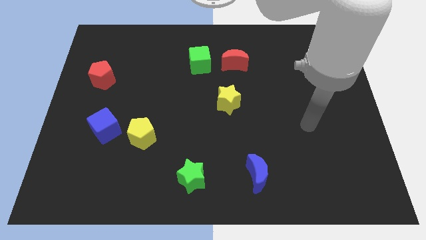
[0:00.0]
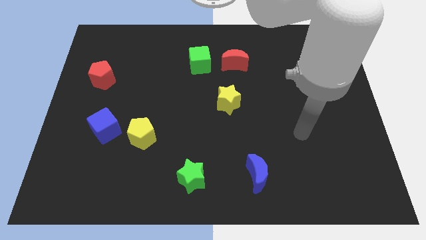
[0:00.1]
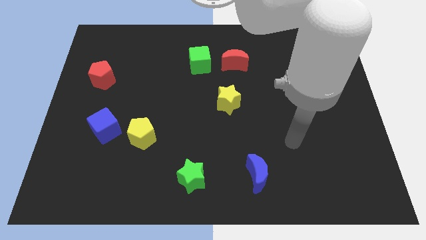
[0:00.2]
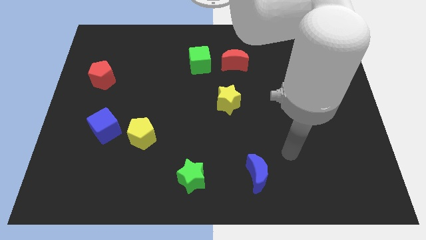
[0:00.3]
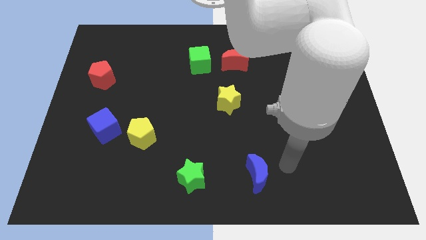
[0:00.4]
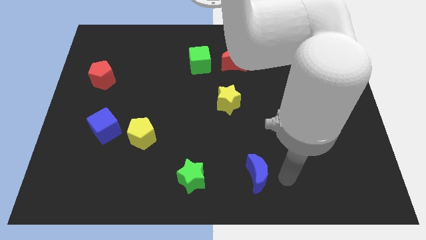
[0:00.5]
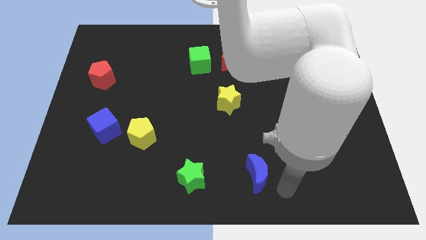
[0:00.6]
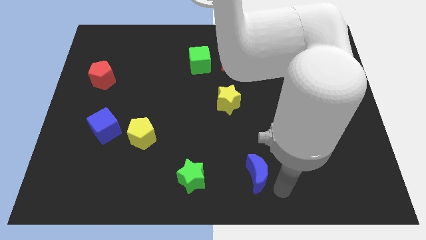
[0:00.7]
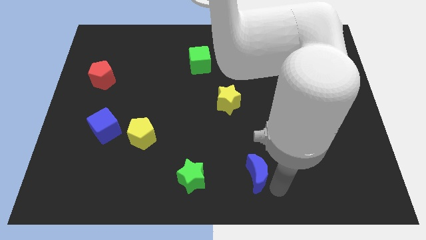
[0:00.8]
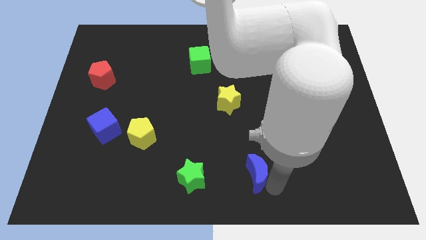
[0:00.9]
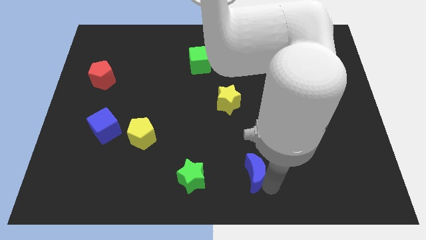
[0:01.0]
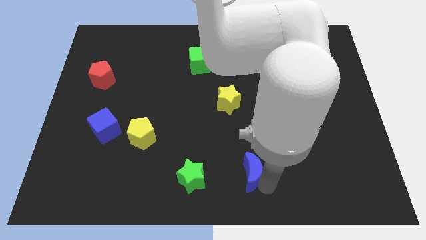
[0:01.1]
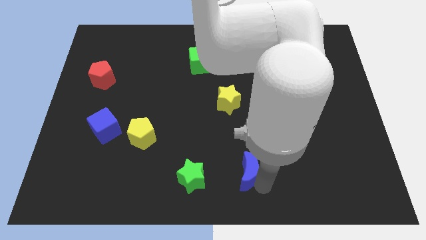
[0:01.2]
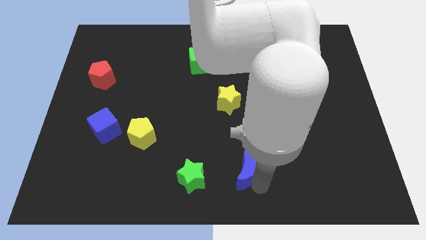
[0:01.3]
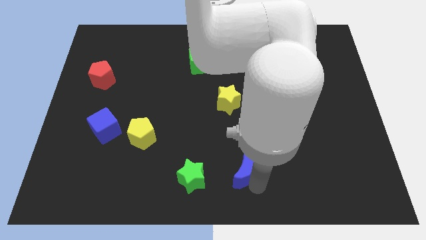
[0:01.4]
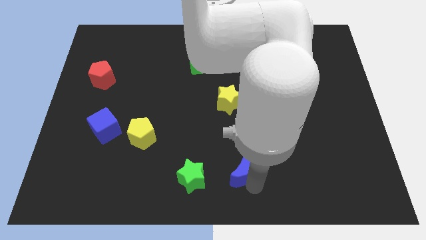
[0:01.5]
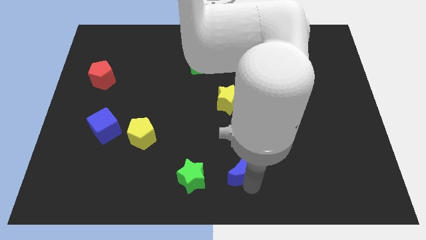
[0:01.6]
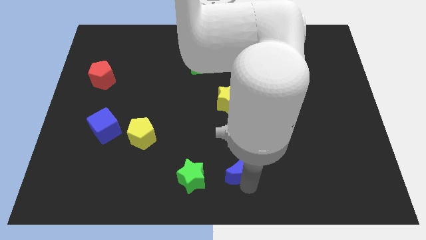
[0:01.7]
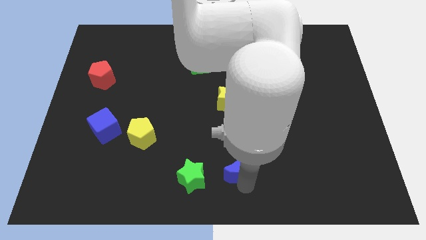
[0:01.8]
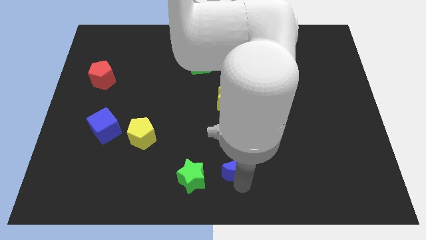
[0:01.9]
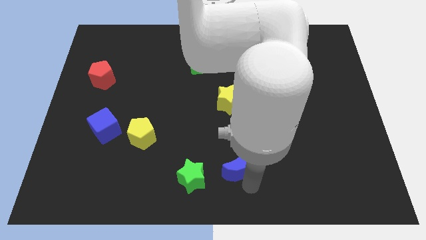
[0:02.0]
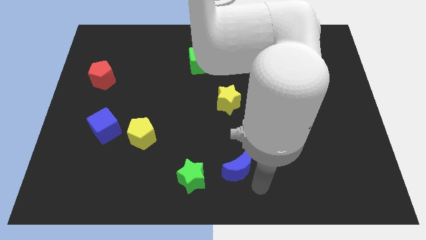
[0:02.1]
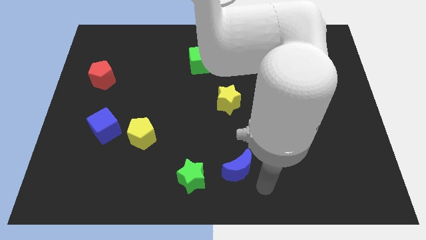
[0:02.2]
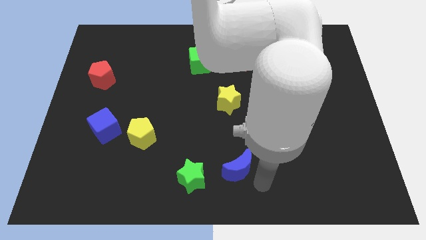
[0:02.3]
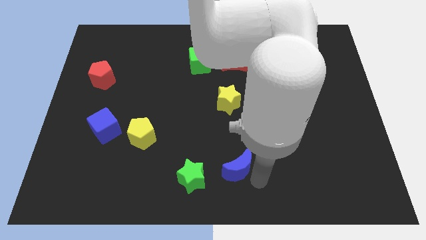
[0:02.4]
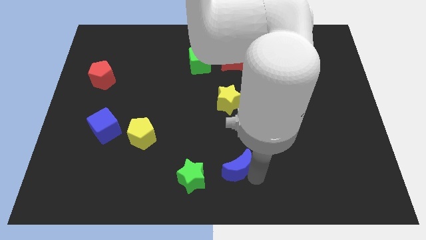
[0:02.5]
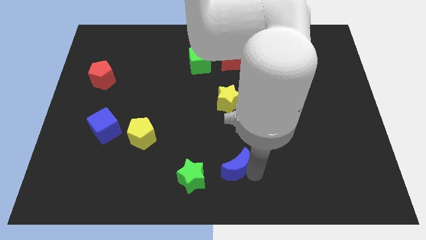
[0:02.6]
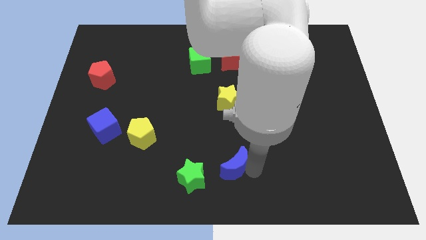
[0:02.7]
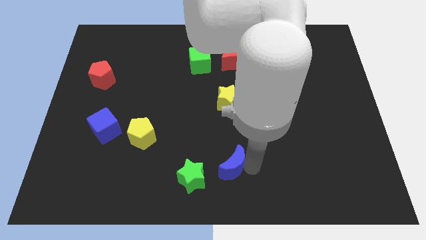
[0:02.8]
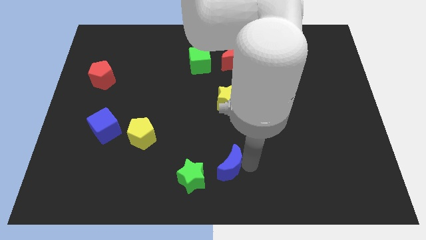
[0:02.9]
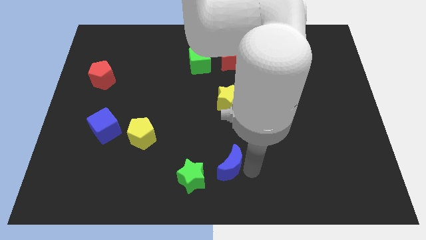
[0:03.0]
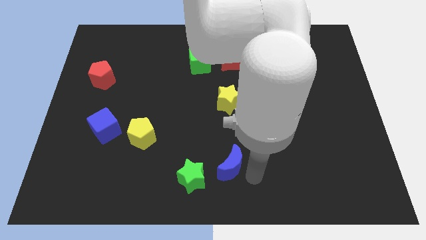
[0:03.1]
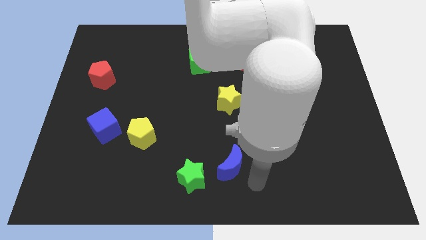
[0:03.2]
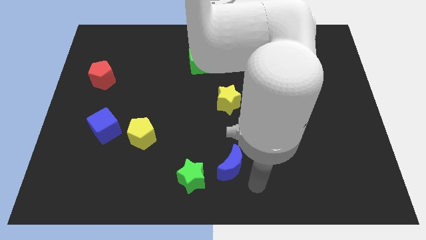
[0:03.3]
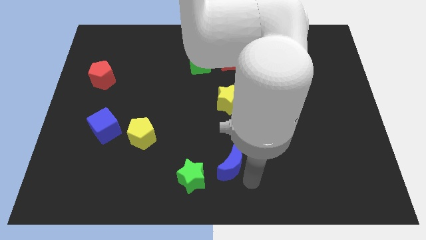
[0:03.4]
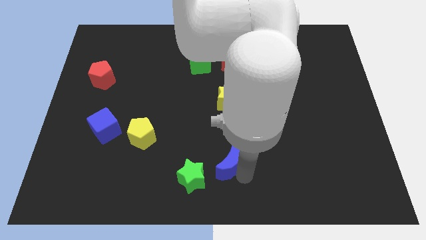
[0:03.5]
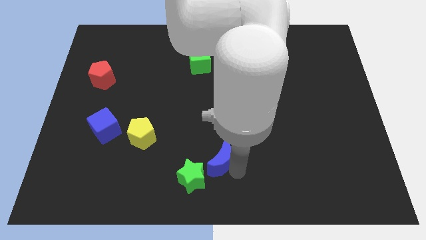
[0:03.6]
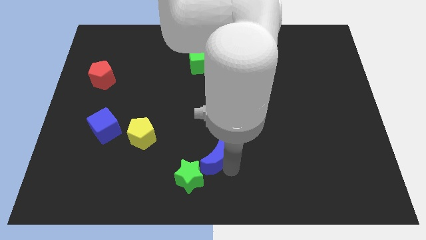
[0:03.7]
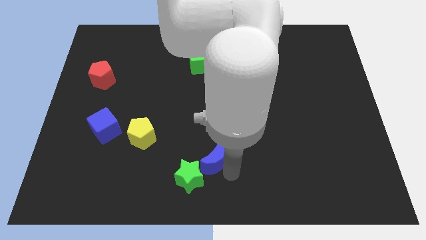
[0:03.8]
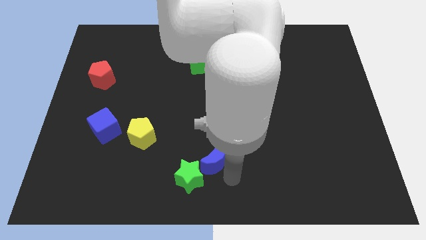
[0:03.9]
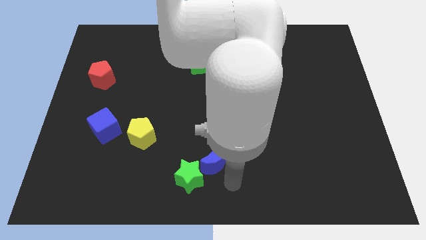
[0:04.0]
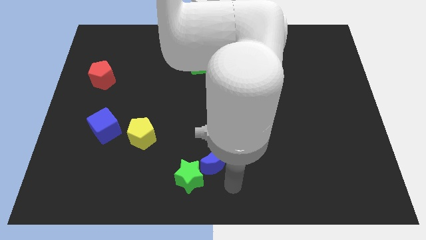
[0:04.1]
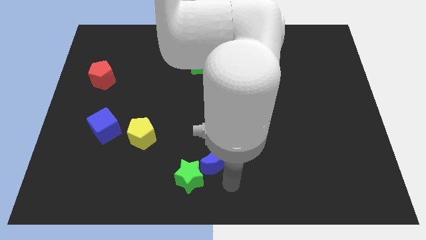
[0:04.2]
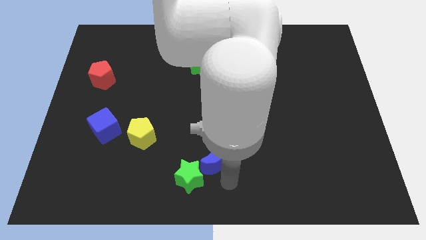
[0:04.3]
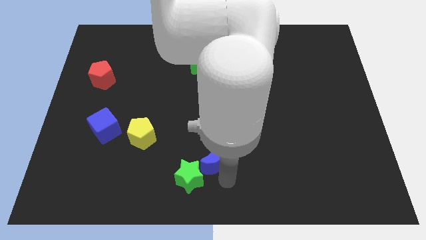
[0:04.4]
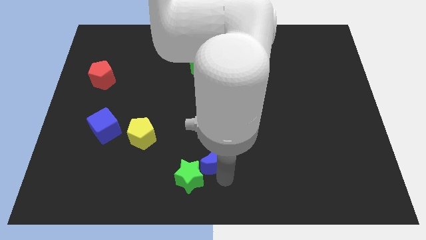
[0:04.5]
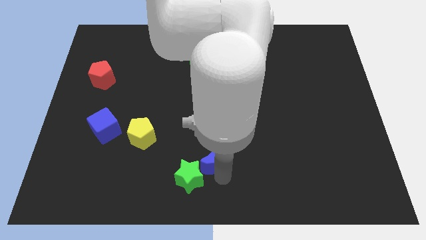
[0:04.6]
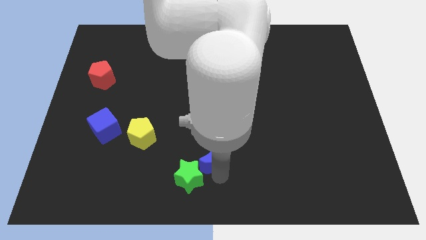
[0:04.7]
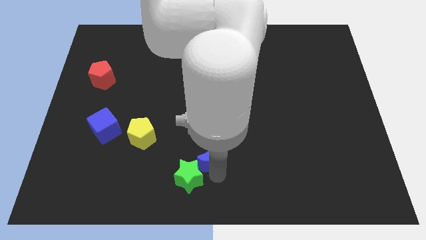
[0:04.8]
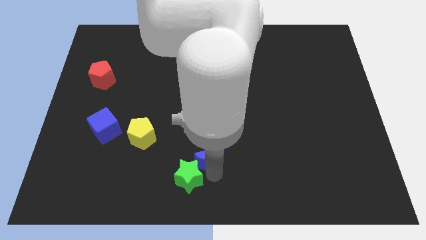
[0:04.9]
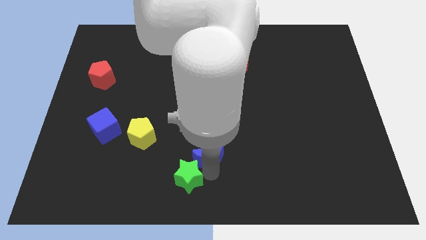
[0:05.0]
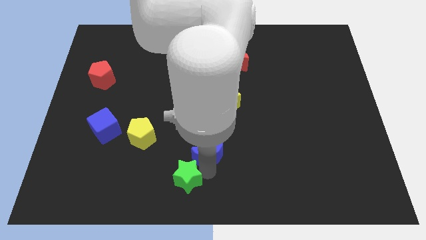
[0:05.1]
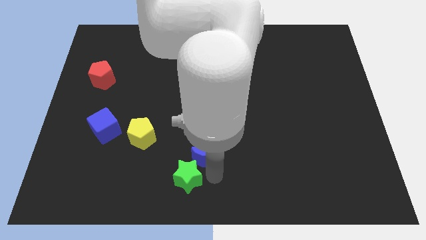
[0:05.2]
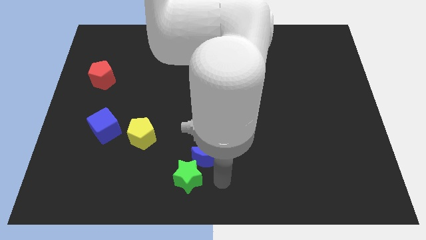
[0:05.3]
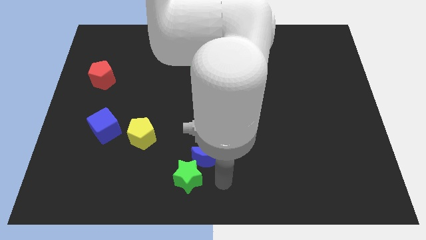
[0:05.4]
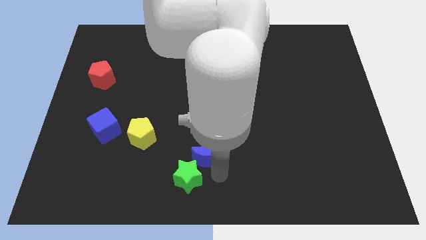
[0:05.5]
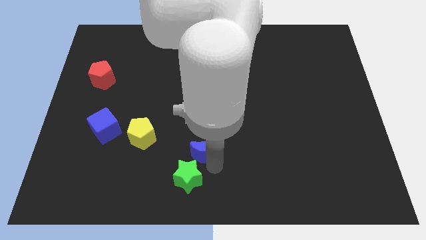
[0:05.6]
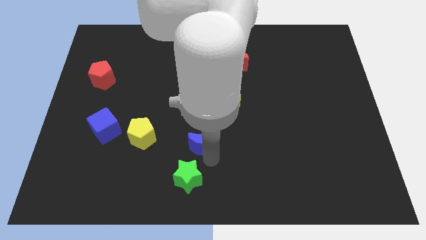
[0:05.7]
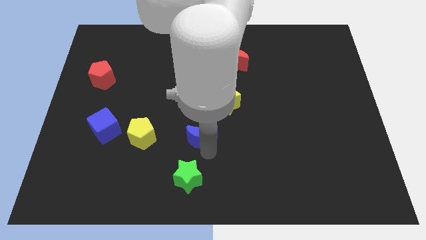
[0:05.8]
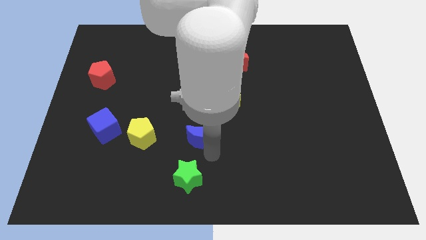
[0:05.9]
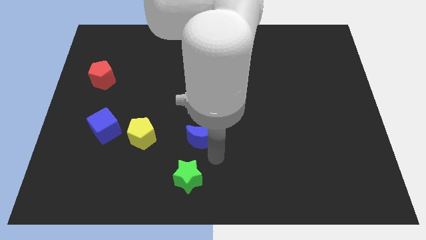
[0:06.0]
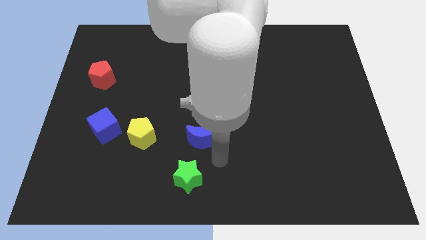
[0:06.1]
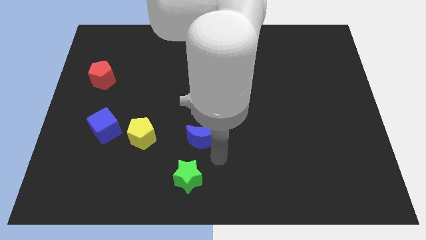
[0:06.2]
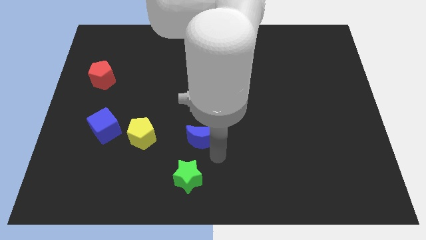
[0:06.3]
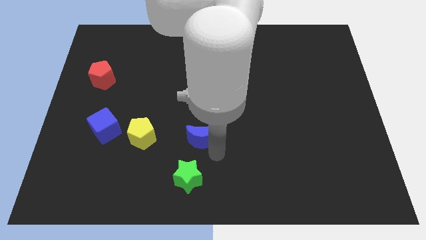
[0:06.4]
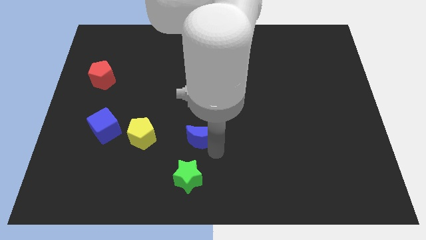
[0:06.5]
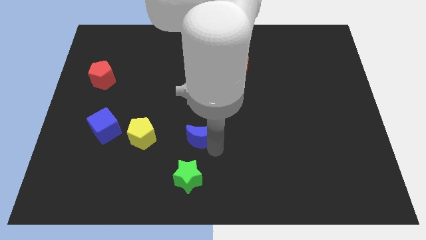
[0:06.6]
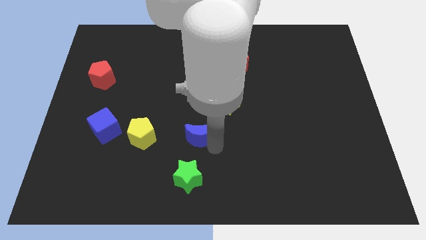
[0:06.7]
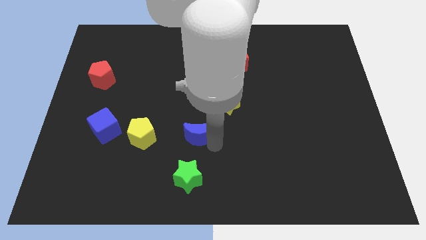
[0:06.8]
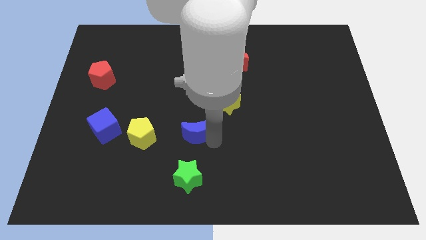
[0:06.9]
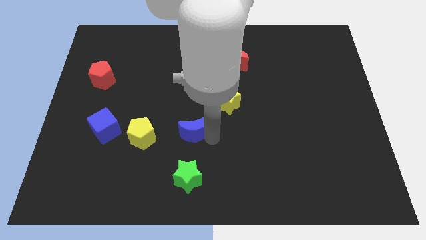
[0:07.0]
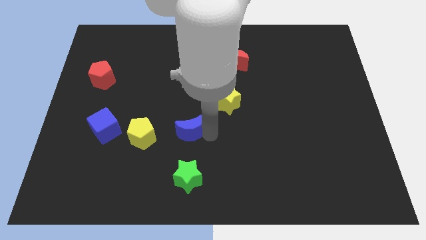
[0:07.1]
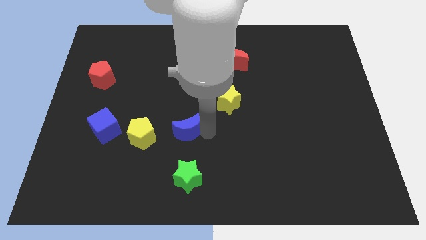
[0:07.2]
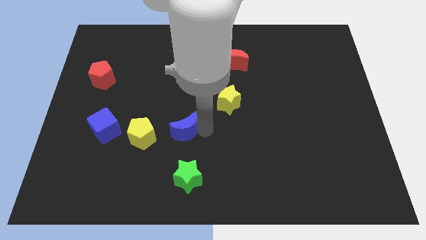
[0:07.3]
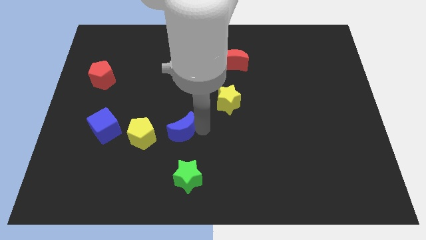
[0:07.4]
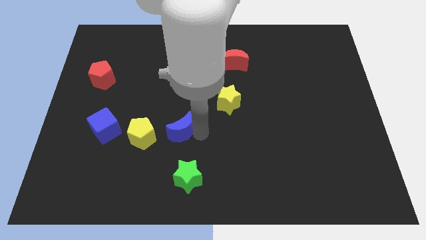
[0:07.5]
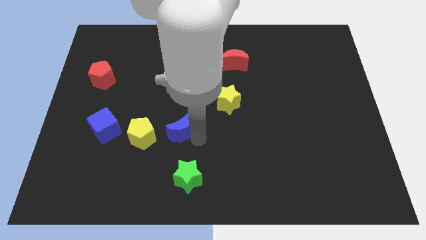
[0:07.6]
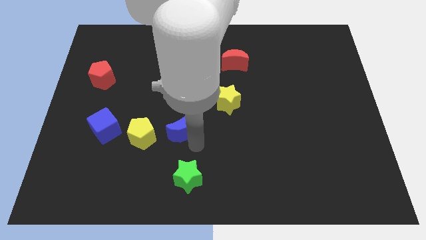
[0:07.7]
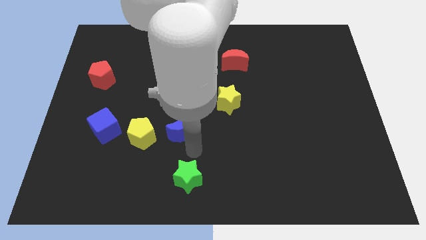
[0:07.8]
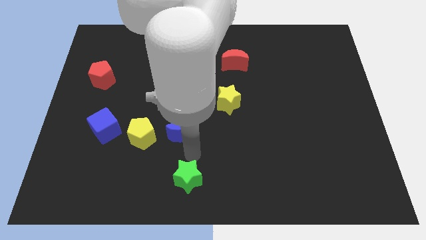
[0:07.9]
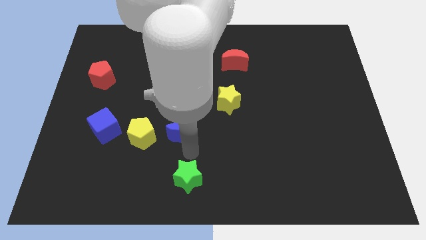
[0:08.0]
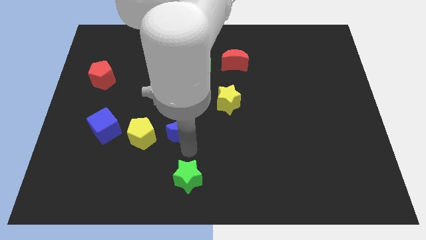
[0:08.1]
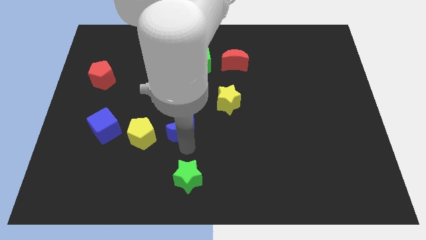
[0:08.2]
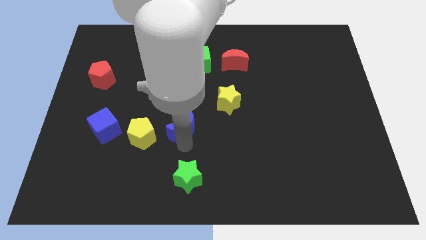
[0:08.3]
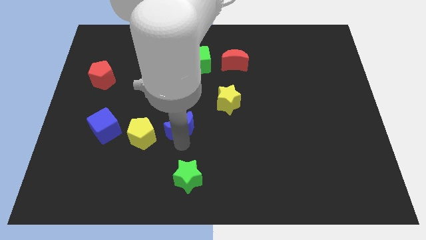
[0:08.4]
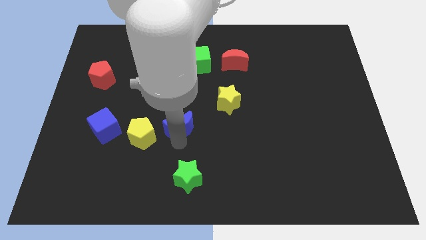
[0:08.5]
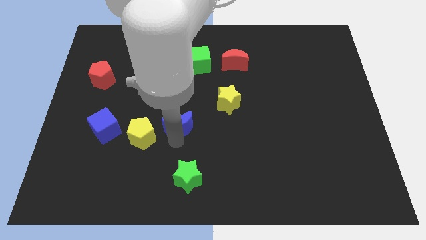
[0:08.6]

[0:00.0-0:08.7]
slide the blue moon upwards and then to the left
